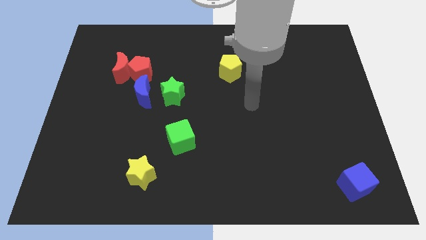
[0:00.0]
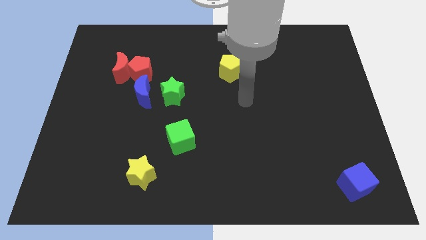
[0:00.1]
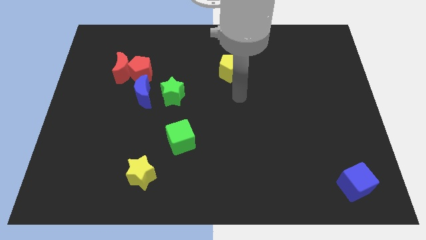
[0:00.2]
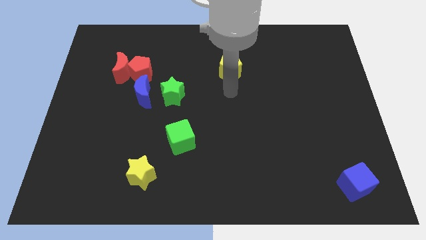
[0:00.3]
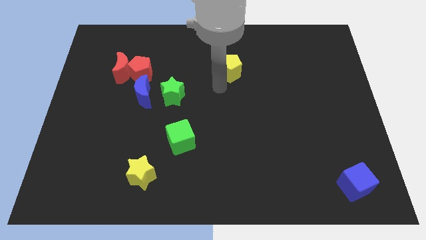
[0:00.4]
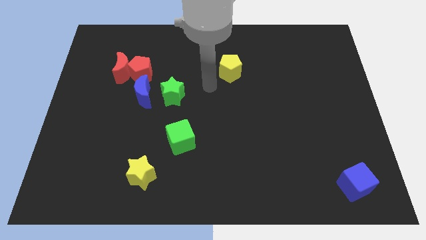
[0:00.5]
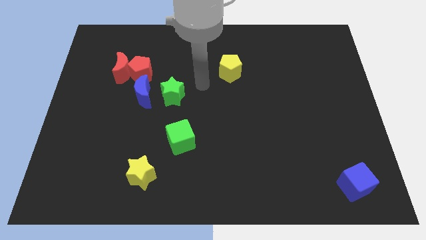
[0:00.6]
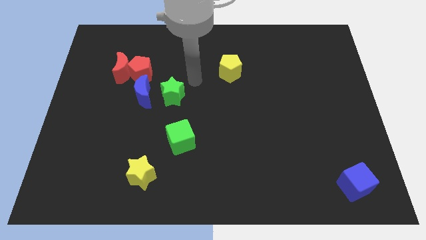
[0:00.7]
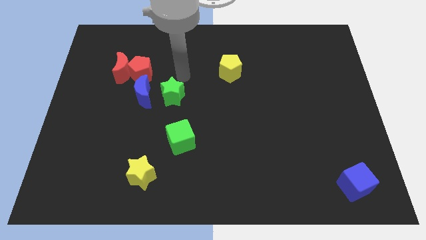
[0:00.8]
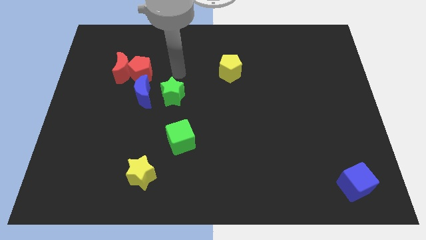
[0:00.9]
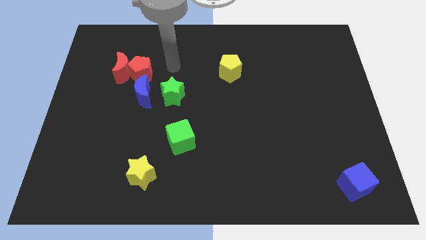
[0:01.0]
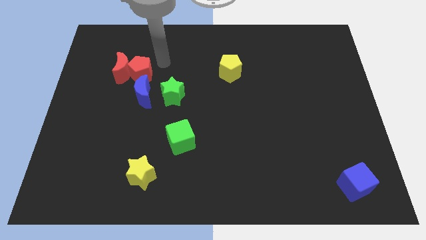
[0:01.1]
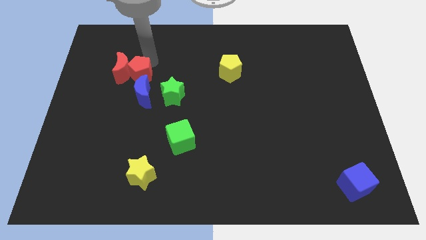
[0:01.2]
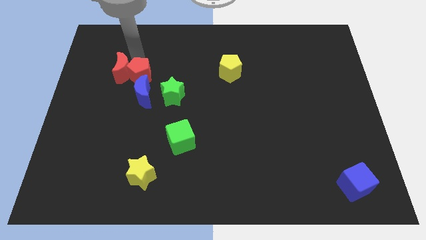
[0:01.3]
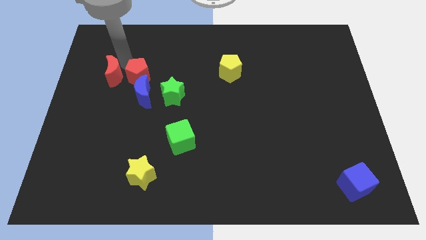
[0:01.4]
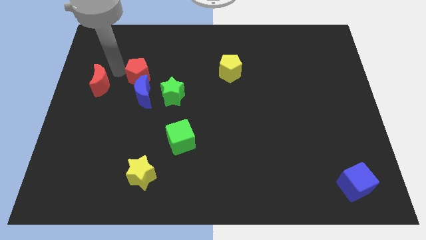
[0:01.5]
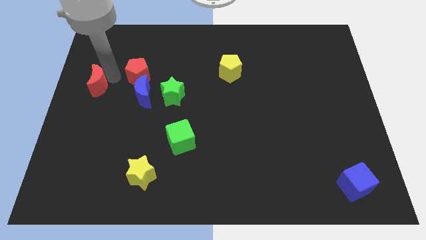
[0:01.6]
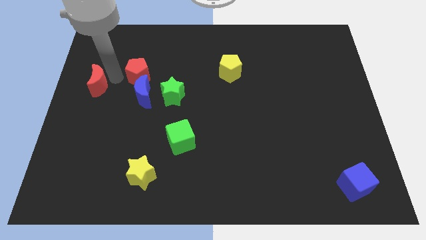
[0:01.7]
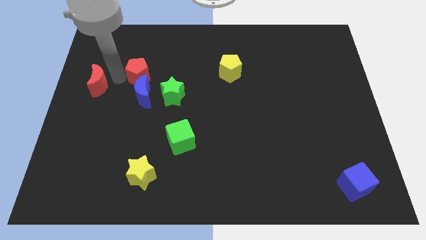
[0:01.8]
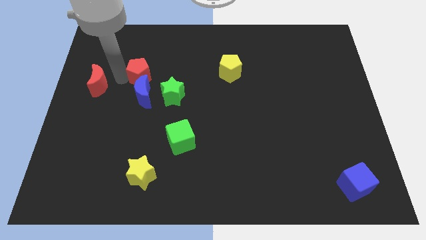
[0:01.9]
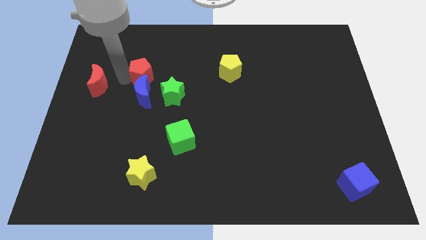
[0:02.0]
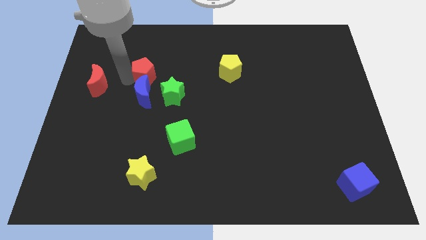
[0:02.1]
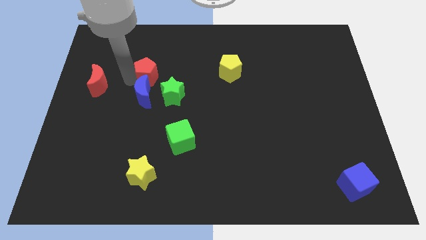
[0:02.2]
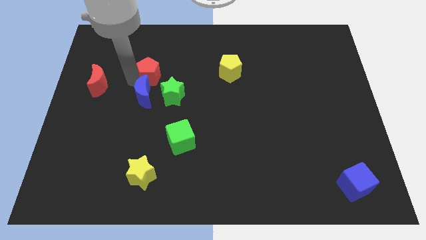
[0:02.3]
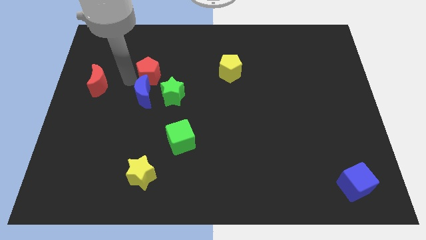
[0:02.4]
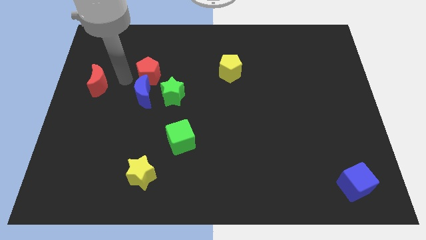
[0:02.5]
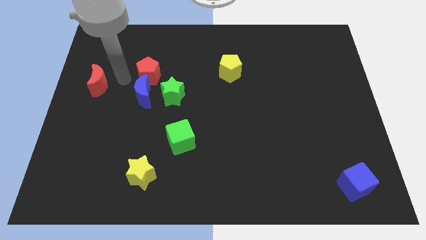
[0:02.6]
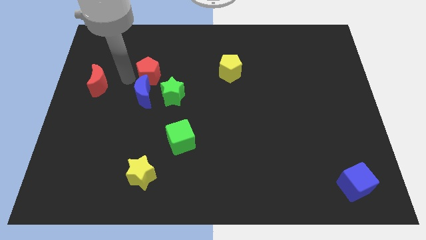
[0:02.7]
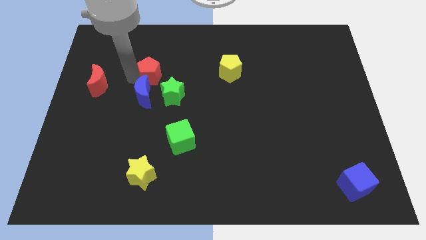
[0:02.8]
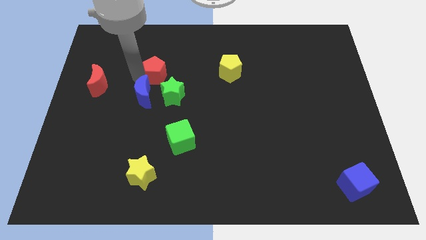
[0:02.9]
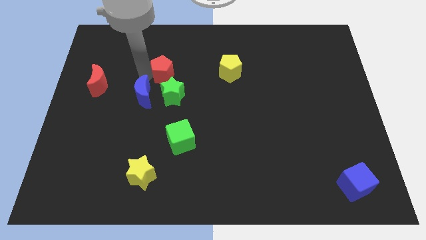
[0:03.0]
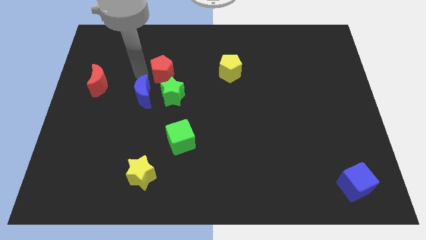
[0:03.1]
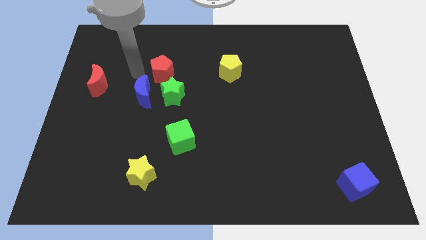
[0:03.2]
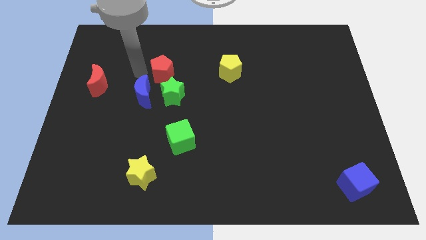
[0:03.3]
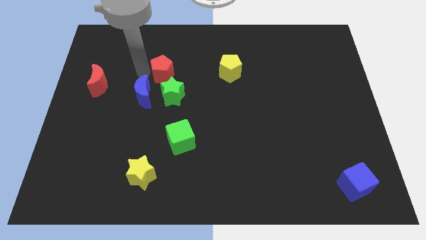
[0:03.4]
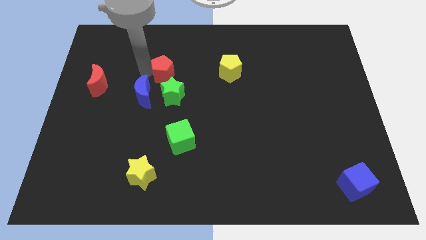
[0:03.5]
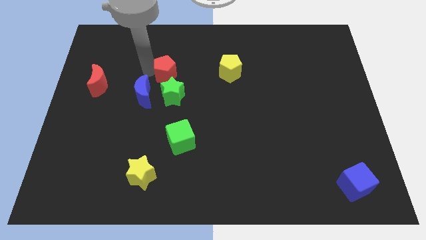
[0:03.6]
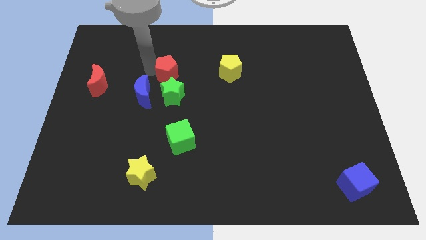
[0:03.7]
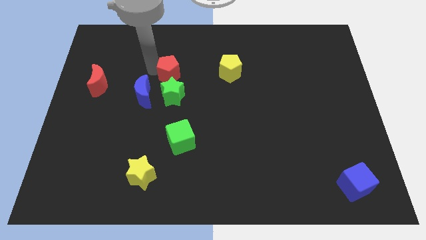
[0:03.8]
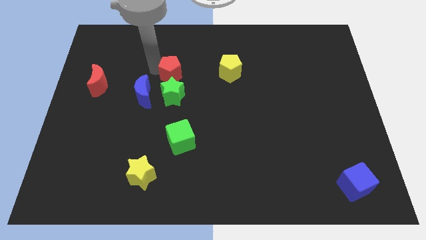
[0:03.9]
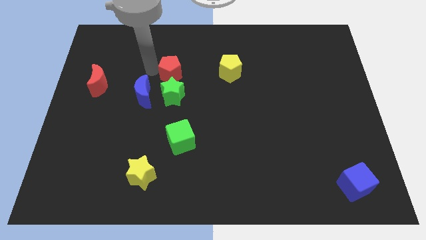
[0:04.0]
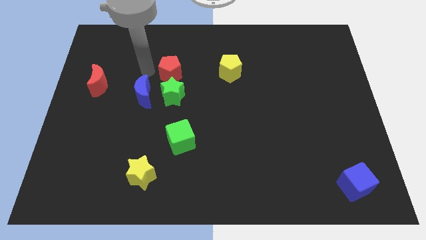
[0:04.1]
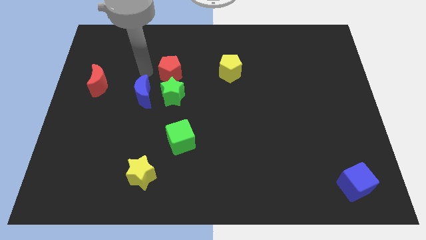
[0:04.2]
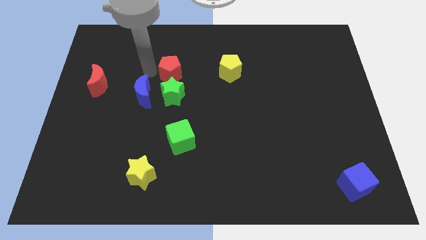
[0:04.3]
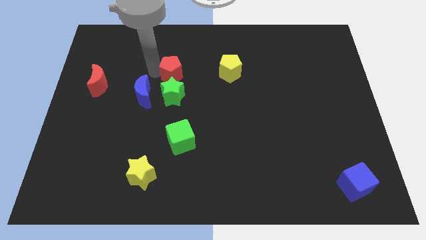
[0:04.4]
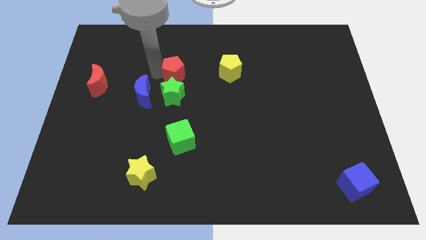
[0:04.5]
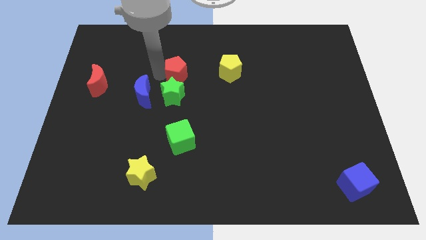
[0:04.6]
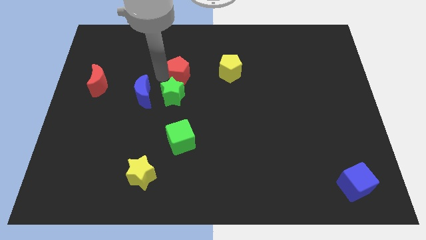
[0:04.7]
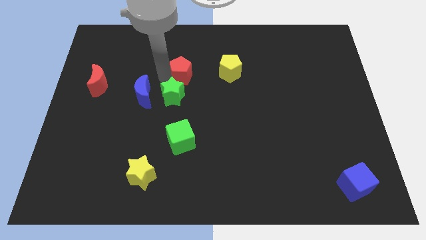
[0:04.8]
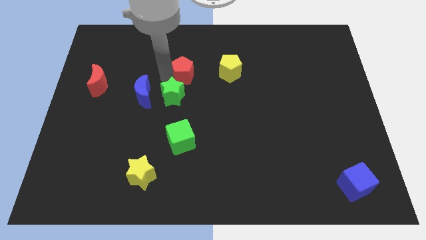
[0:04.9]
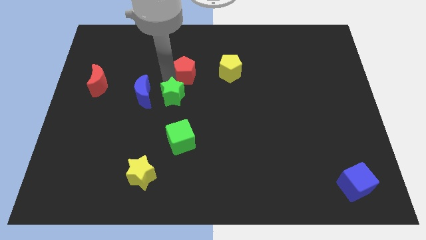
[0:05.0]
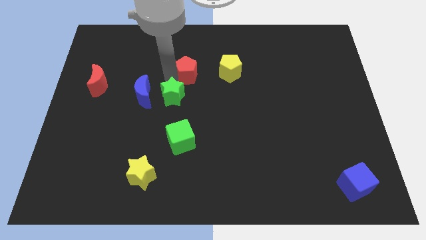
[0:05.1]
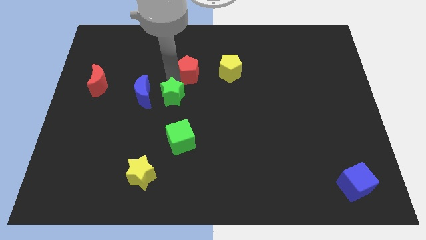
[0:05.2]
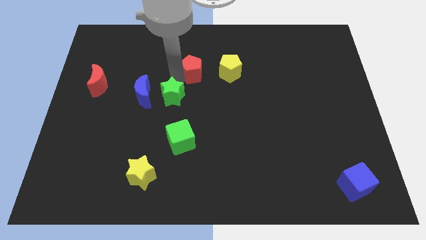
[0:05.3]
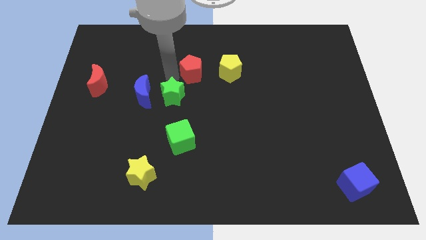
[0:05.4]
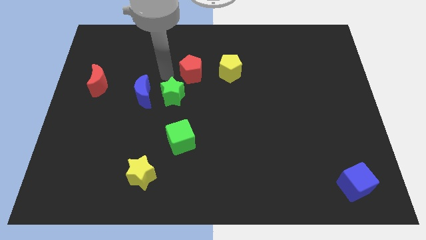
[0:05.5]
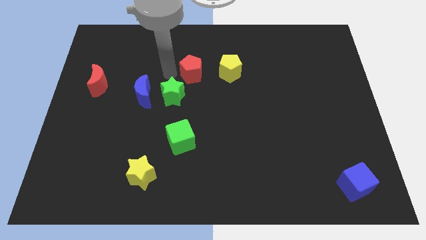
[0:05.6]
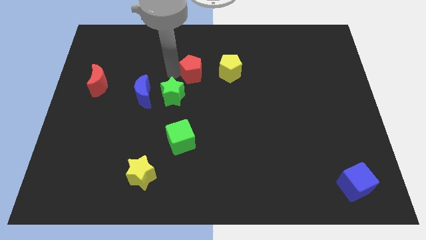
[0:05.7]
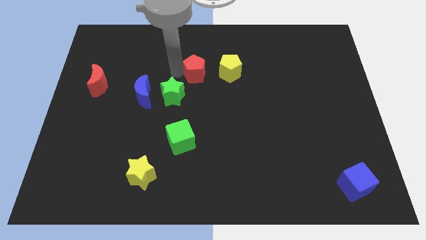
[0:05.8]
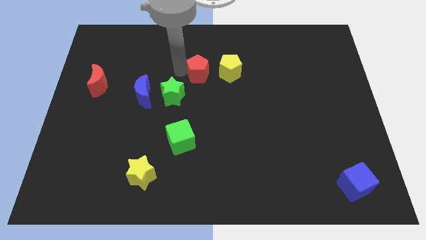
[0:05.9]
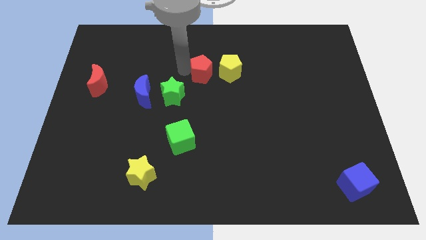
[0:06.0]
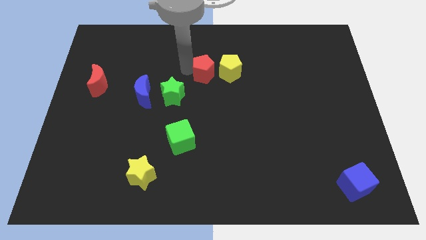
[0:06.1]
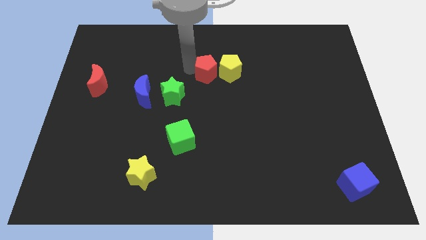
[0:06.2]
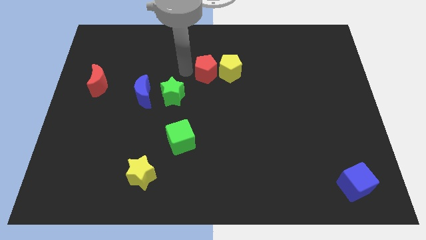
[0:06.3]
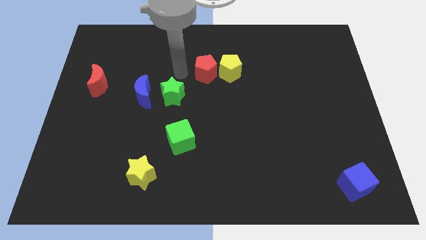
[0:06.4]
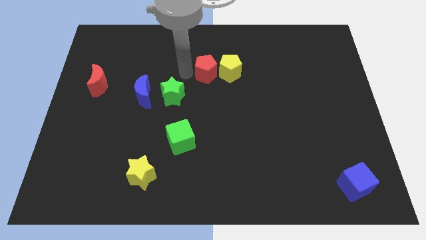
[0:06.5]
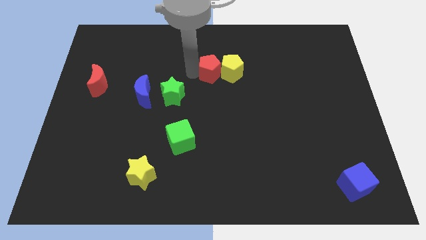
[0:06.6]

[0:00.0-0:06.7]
move the red pentagon next to the yellow pentagon

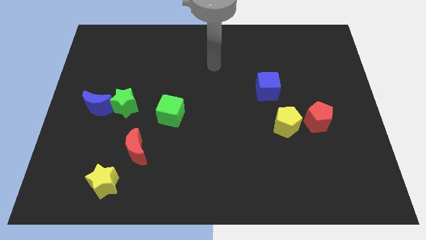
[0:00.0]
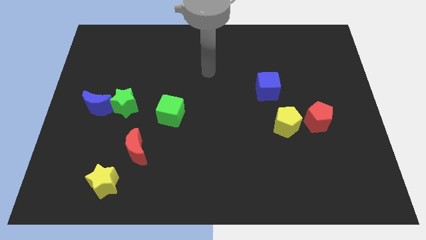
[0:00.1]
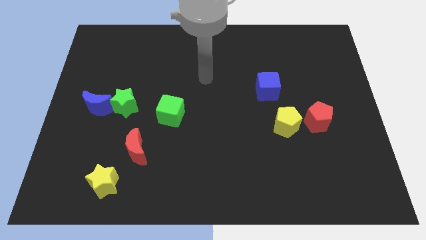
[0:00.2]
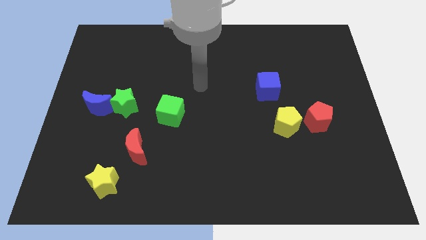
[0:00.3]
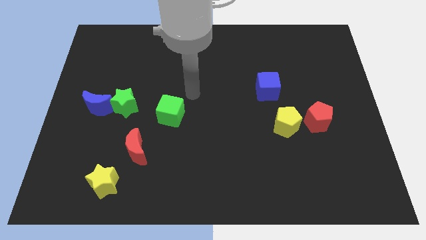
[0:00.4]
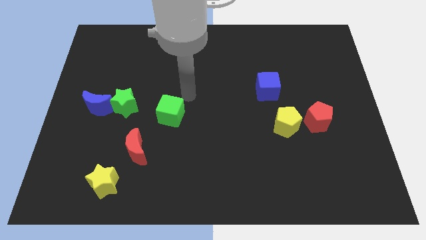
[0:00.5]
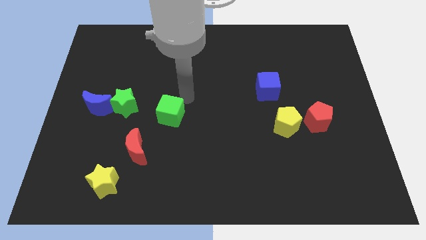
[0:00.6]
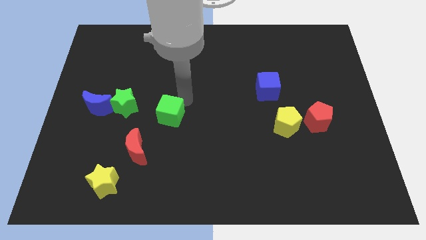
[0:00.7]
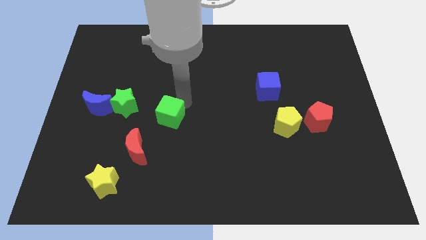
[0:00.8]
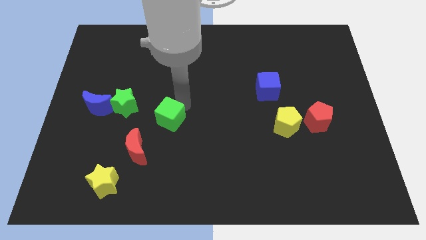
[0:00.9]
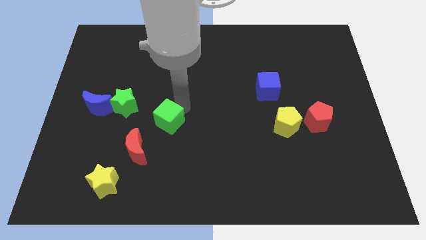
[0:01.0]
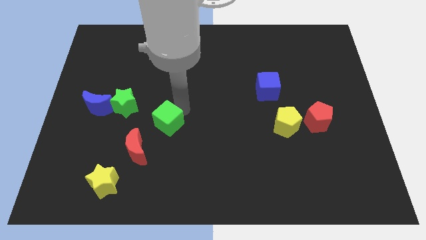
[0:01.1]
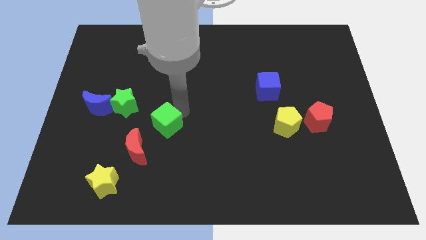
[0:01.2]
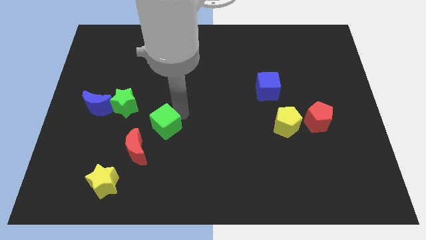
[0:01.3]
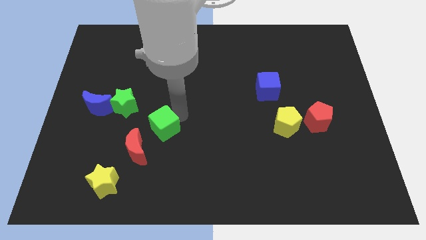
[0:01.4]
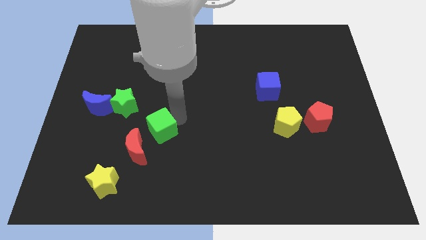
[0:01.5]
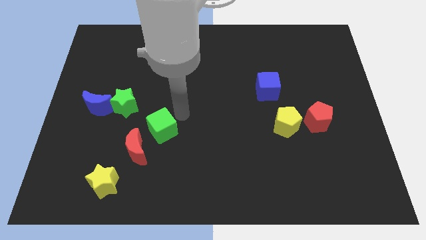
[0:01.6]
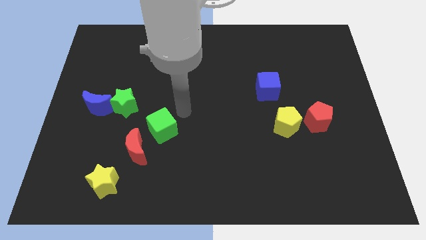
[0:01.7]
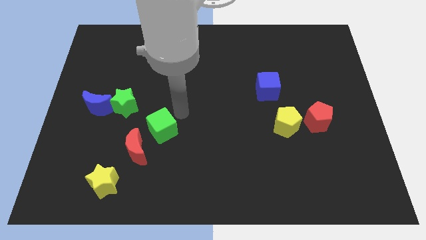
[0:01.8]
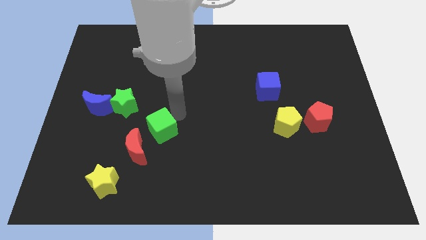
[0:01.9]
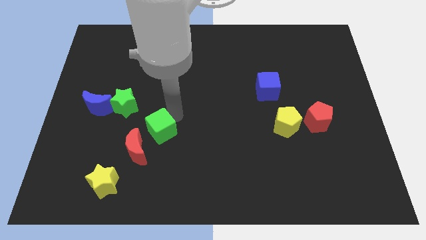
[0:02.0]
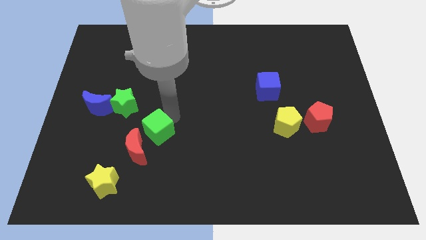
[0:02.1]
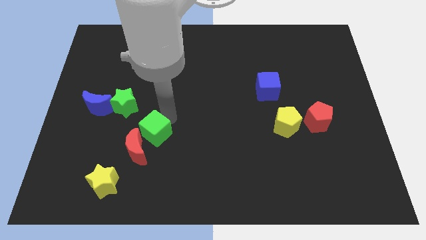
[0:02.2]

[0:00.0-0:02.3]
slide the green cube towards the red moon
